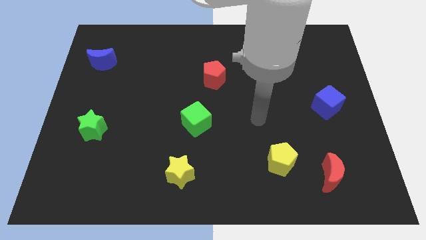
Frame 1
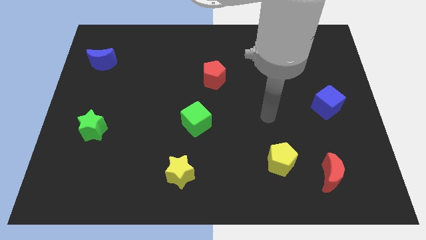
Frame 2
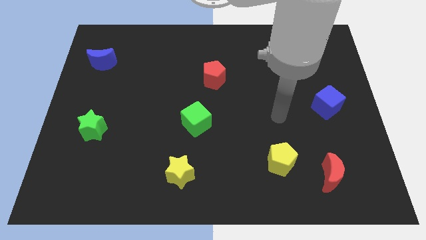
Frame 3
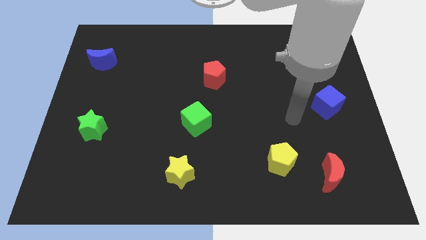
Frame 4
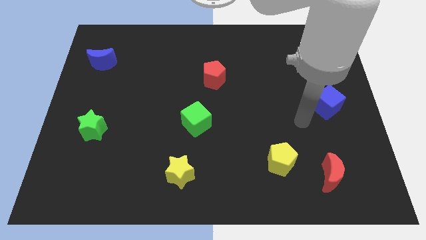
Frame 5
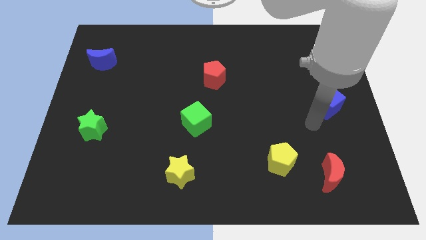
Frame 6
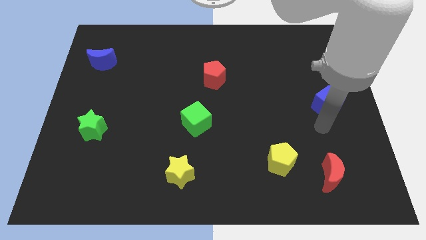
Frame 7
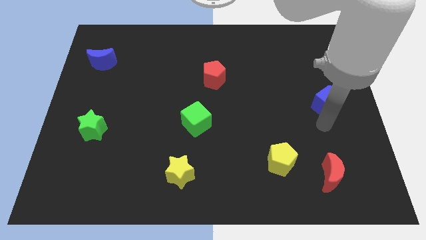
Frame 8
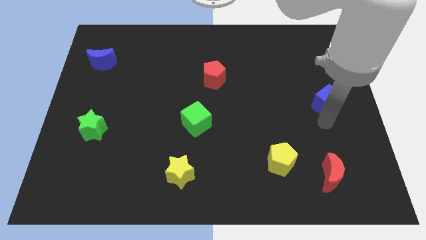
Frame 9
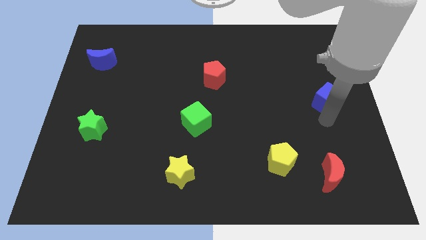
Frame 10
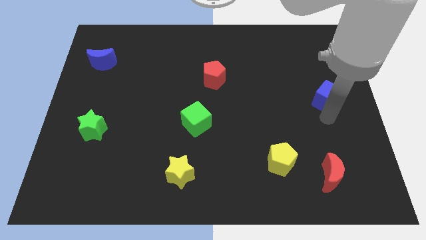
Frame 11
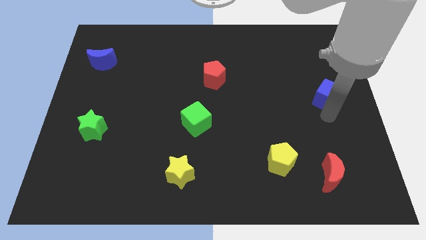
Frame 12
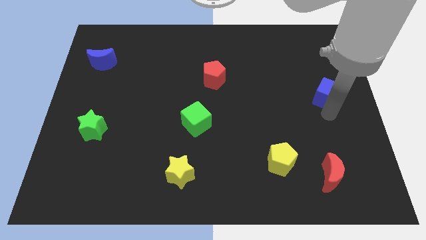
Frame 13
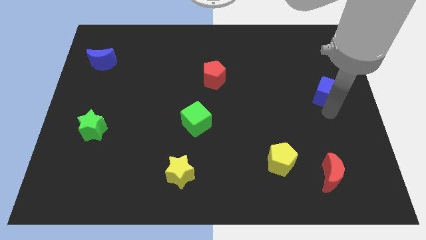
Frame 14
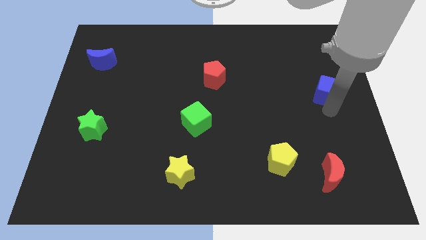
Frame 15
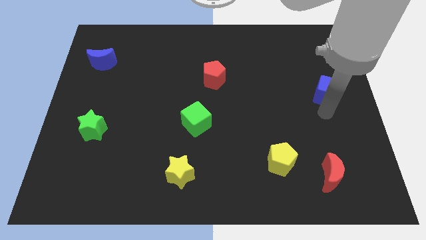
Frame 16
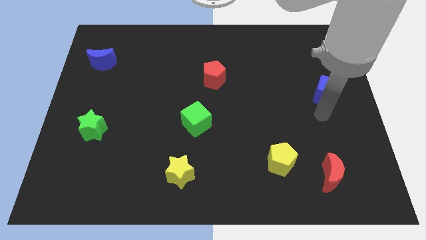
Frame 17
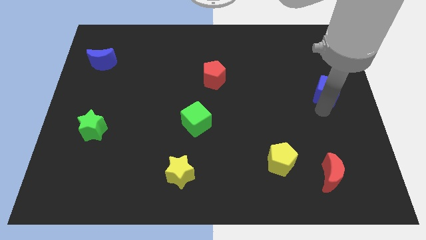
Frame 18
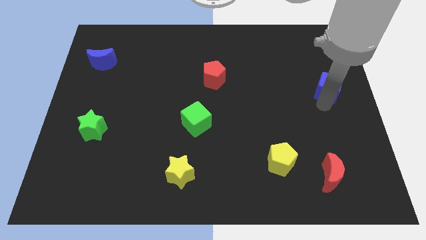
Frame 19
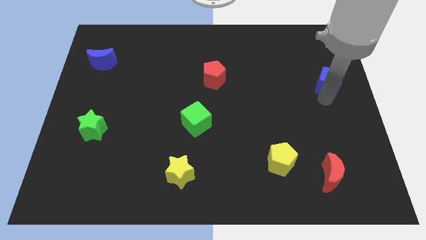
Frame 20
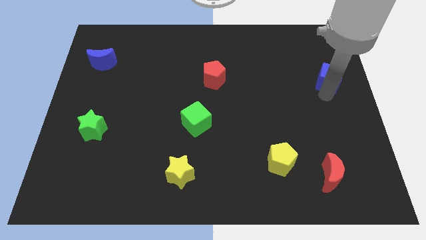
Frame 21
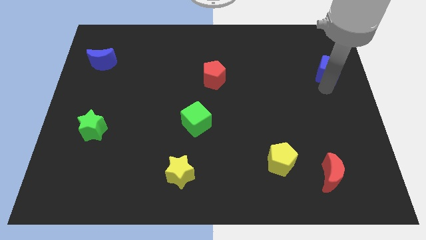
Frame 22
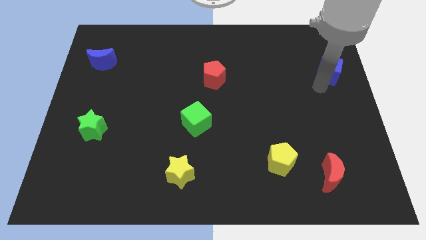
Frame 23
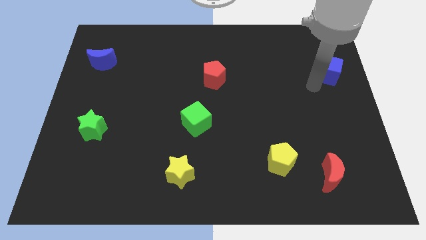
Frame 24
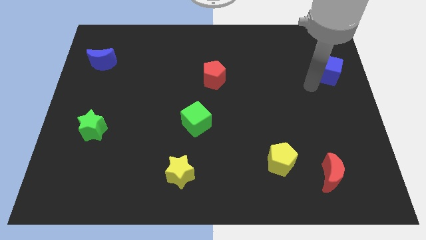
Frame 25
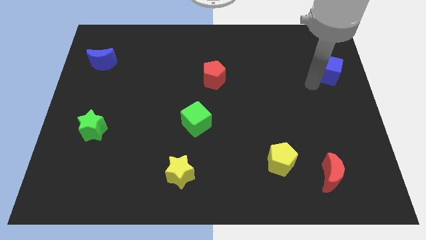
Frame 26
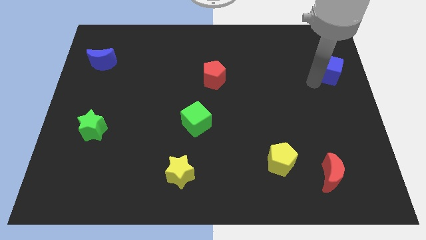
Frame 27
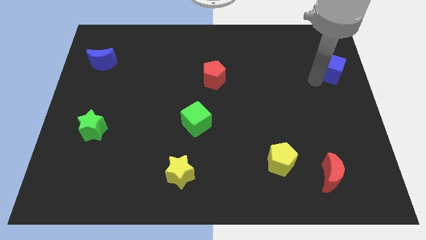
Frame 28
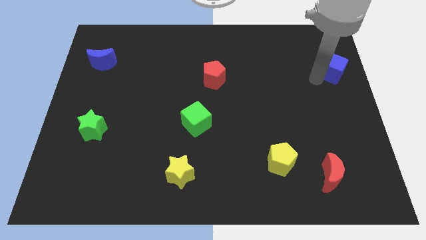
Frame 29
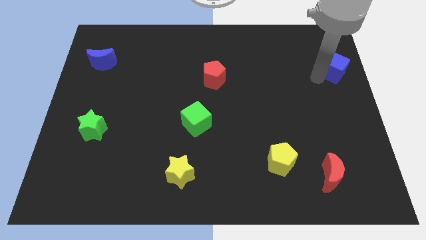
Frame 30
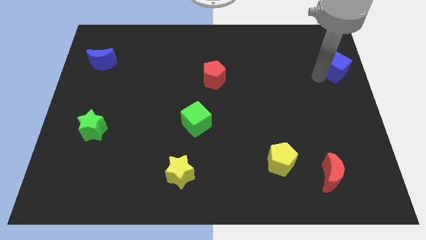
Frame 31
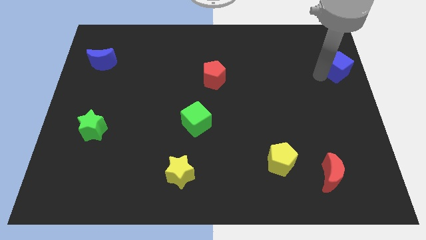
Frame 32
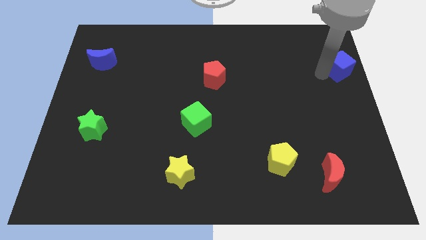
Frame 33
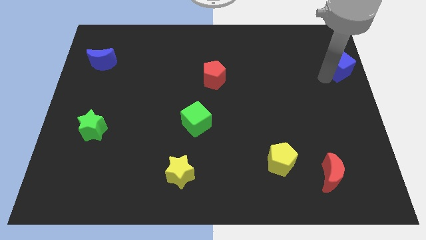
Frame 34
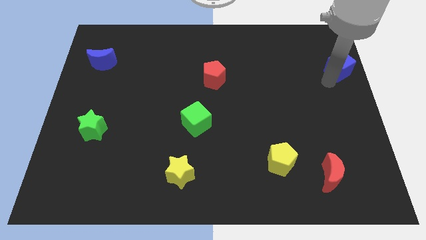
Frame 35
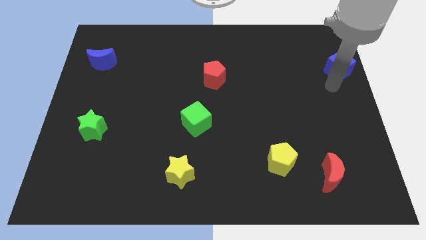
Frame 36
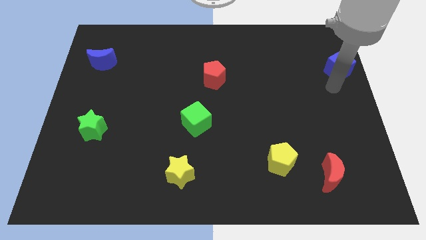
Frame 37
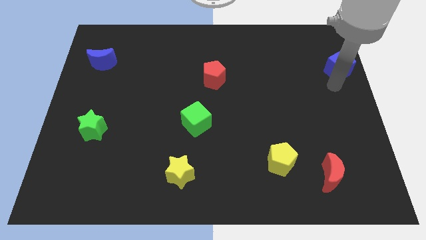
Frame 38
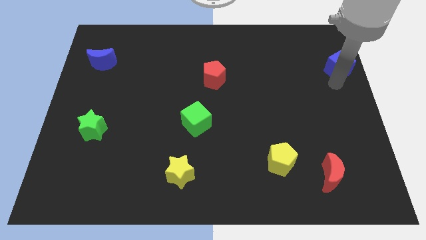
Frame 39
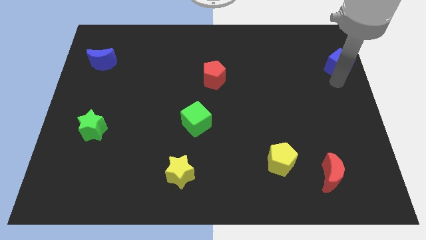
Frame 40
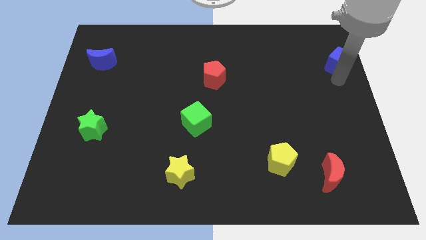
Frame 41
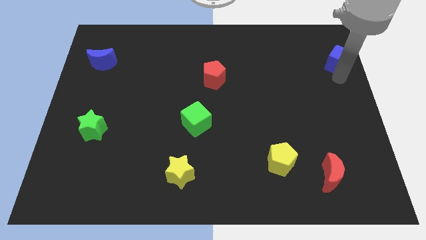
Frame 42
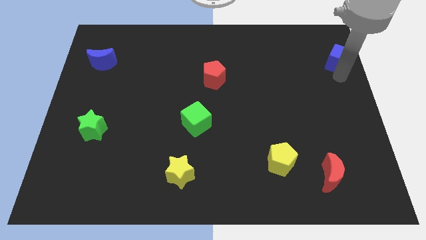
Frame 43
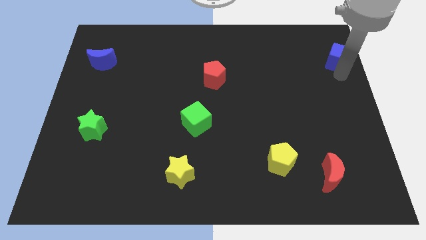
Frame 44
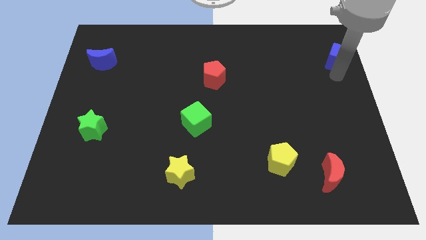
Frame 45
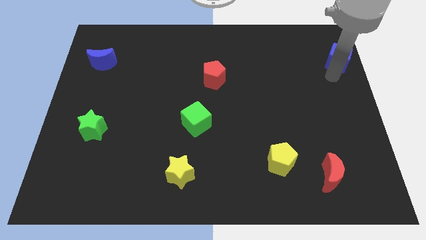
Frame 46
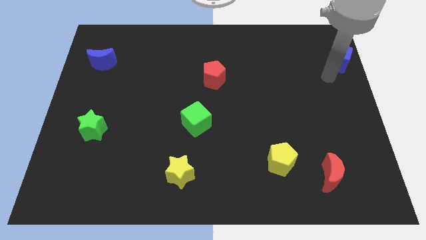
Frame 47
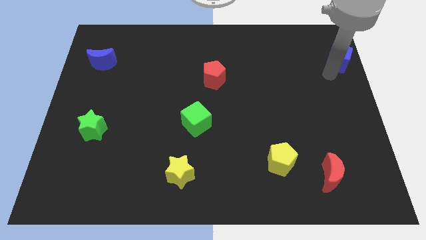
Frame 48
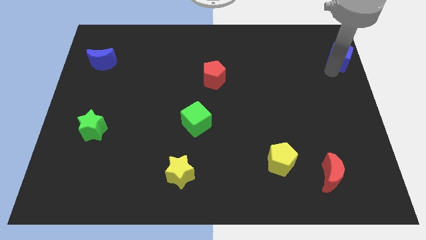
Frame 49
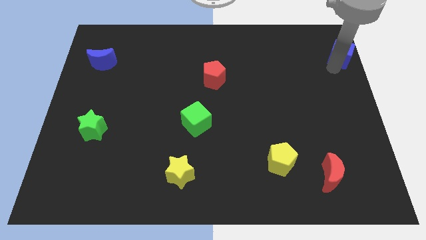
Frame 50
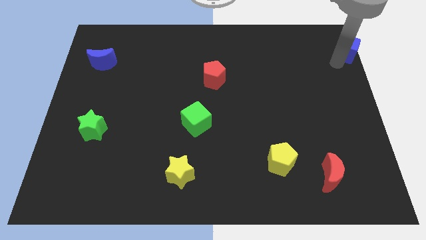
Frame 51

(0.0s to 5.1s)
push the blue cube to the top right

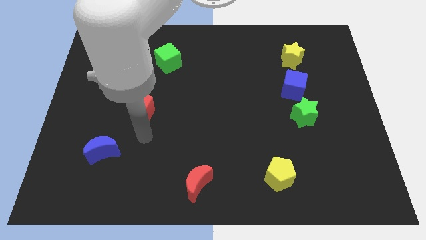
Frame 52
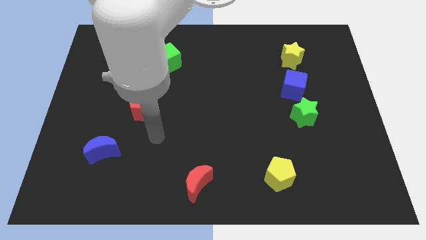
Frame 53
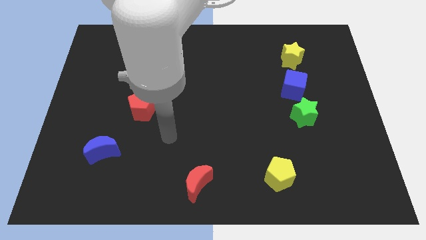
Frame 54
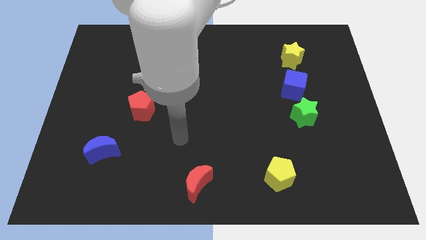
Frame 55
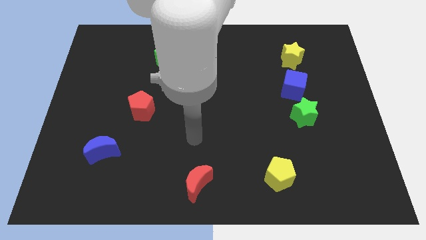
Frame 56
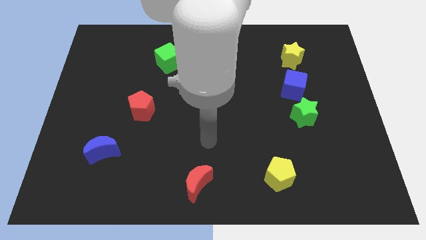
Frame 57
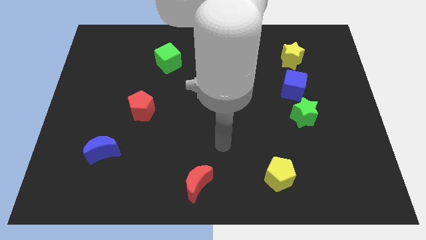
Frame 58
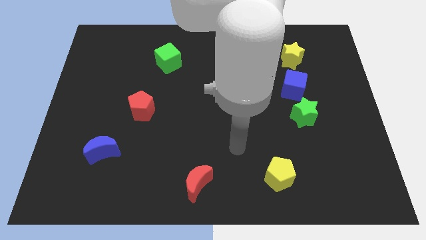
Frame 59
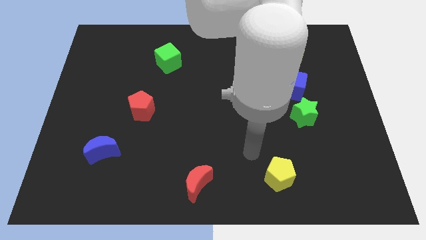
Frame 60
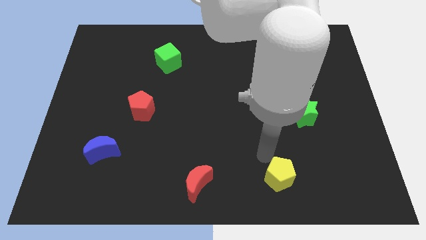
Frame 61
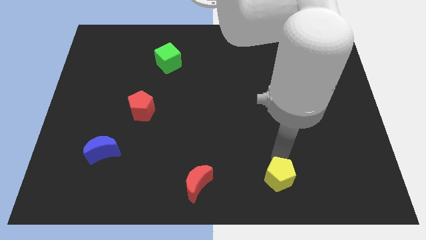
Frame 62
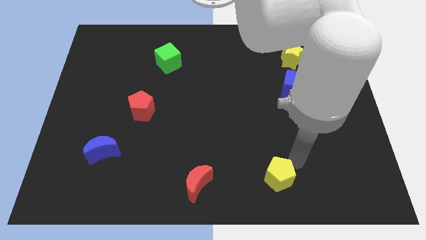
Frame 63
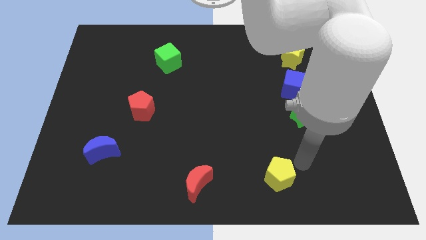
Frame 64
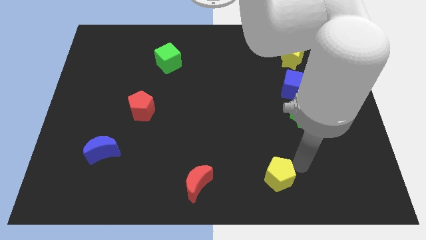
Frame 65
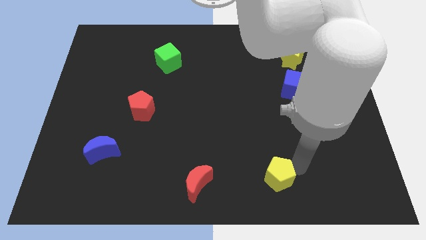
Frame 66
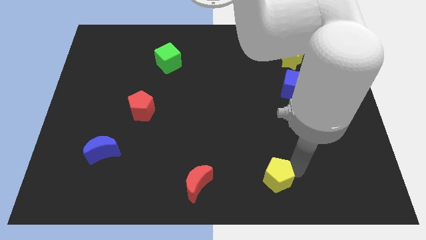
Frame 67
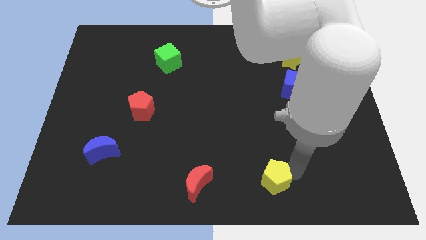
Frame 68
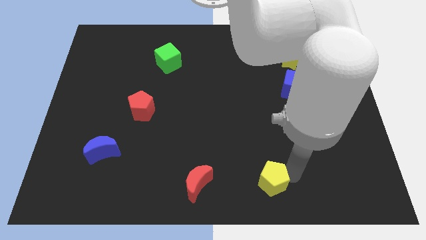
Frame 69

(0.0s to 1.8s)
put the yellow pentagon to the bottom
